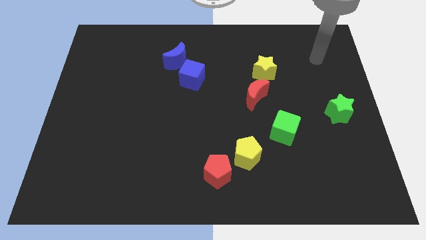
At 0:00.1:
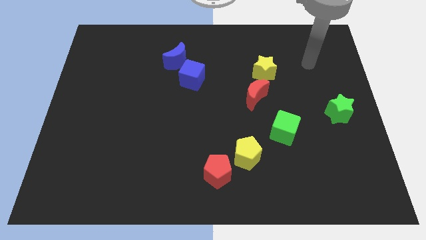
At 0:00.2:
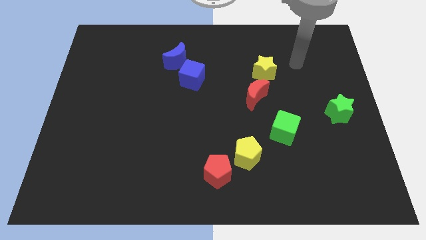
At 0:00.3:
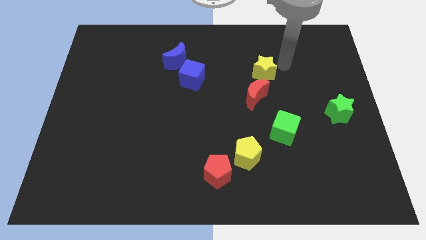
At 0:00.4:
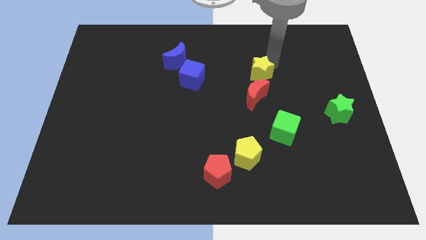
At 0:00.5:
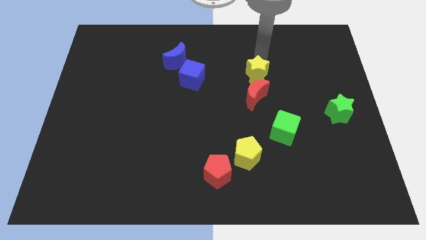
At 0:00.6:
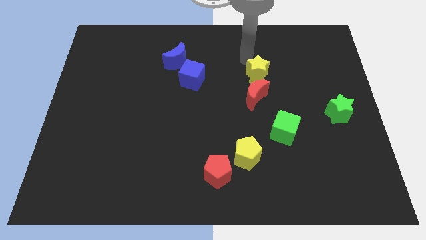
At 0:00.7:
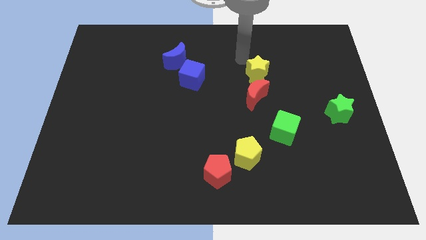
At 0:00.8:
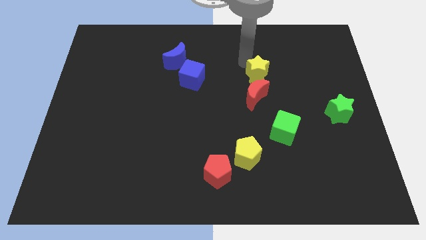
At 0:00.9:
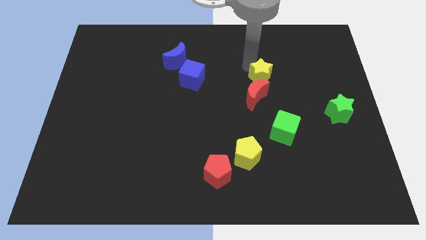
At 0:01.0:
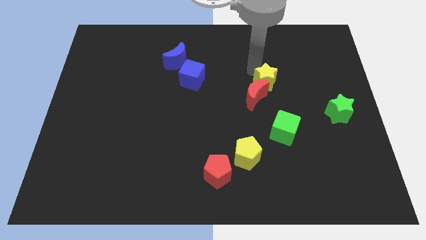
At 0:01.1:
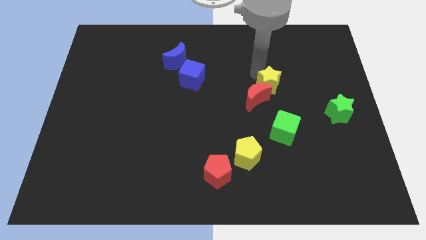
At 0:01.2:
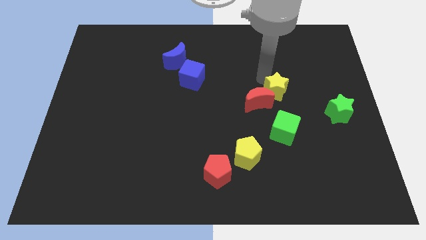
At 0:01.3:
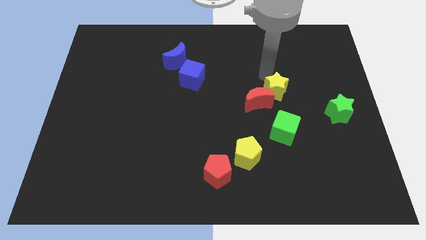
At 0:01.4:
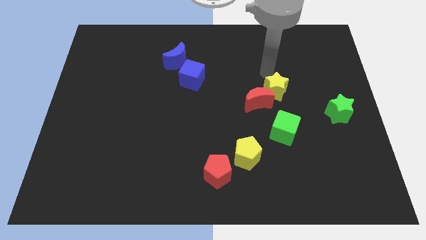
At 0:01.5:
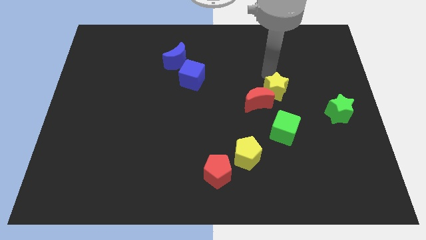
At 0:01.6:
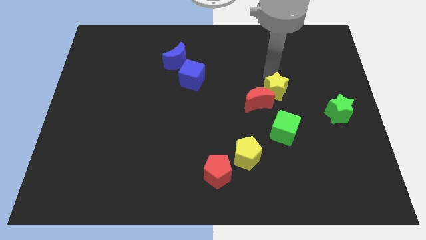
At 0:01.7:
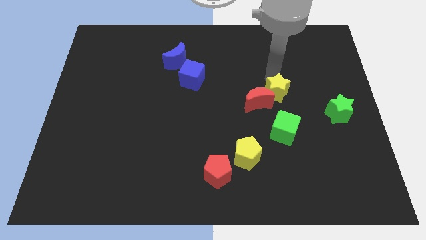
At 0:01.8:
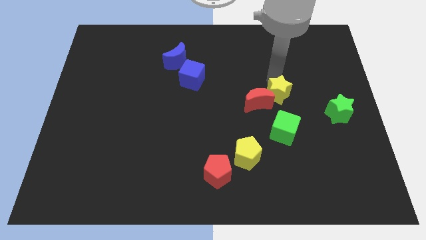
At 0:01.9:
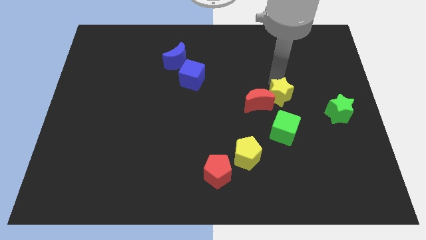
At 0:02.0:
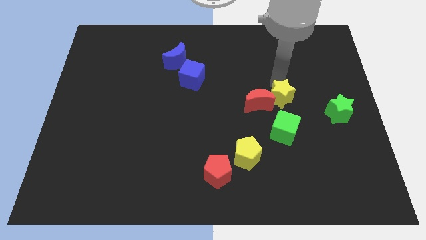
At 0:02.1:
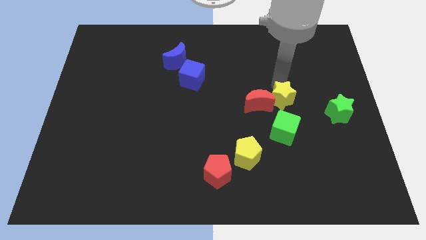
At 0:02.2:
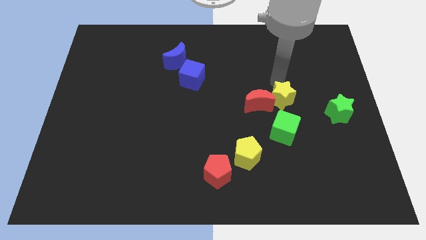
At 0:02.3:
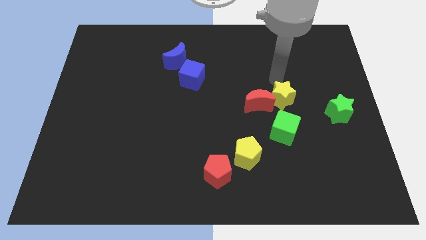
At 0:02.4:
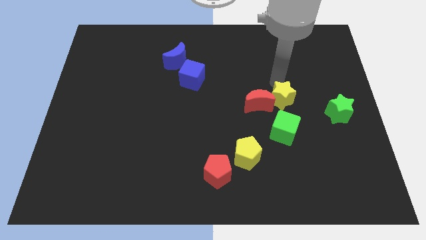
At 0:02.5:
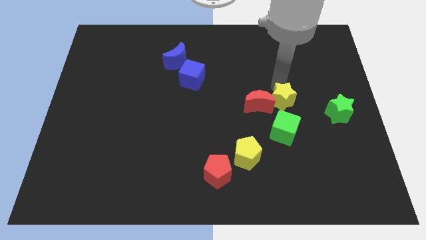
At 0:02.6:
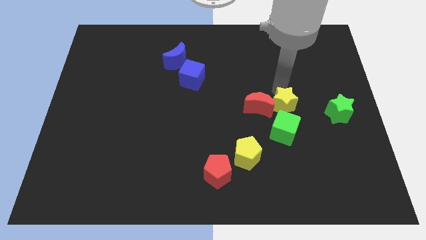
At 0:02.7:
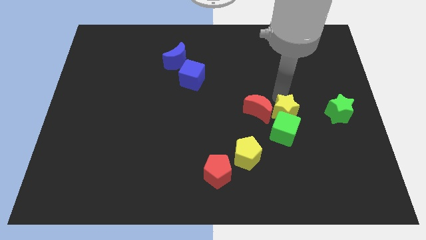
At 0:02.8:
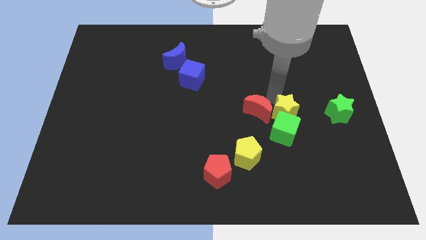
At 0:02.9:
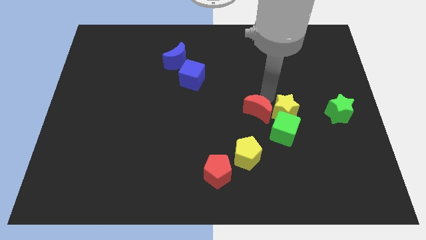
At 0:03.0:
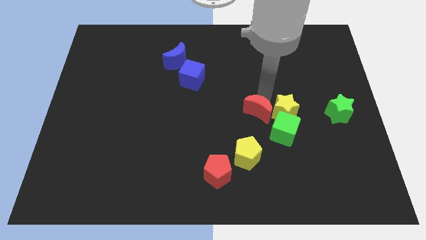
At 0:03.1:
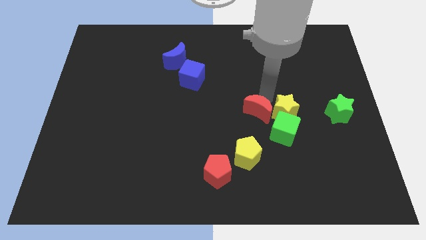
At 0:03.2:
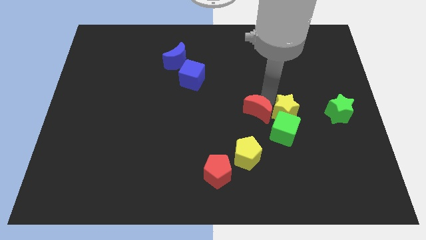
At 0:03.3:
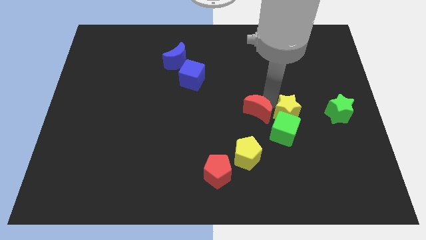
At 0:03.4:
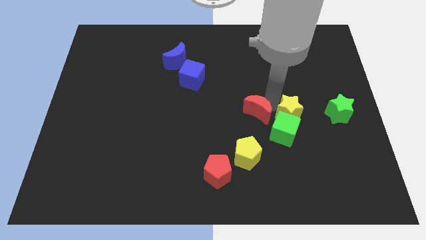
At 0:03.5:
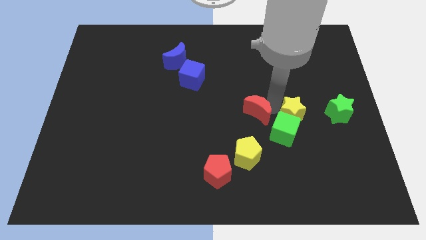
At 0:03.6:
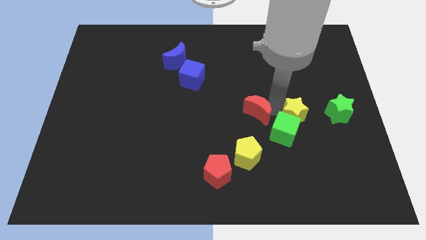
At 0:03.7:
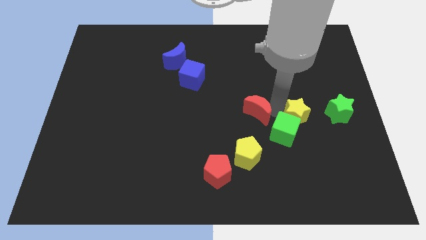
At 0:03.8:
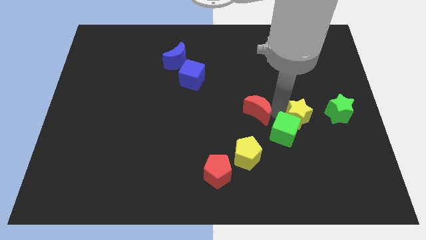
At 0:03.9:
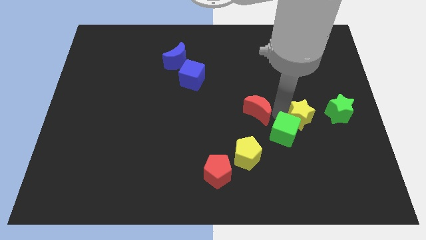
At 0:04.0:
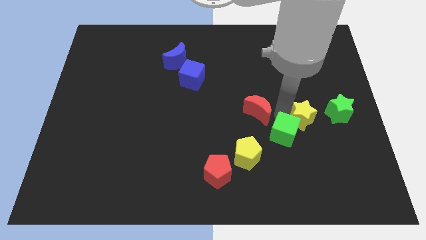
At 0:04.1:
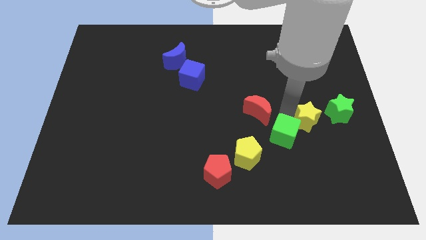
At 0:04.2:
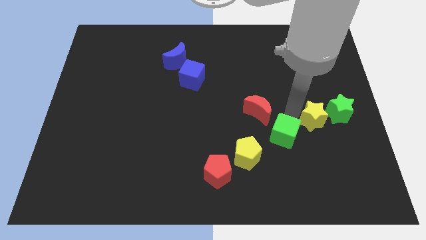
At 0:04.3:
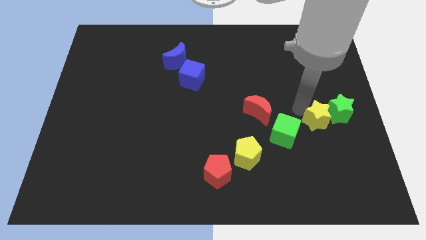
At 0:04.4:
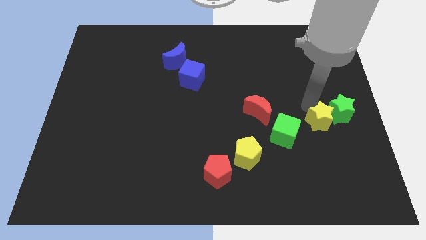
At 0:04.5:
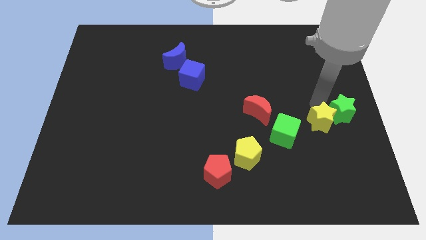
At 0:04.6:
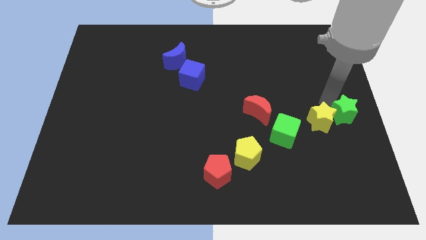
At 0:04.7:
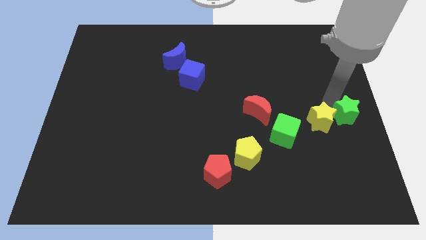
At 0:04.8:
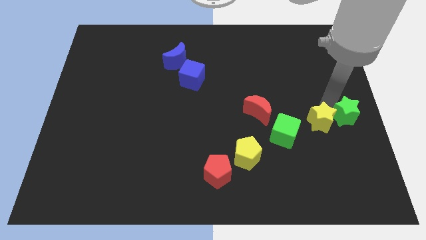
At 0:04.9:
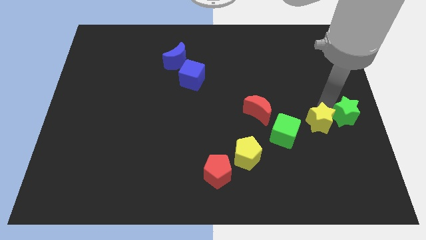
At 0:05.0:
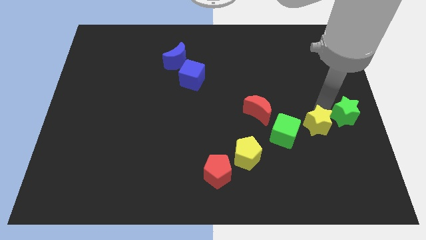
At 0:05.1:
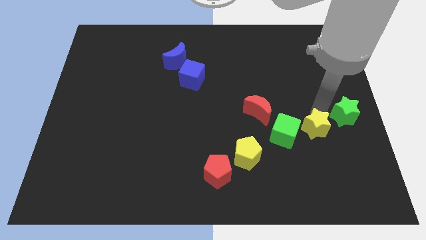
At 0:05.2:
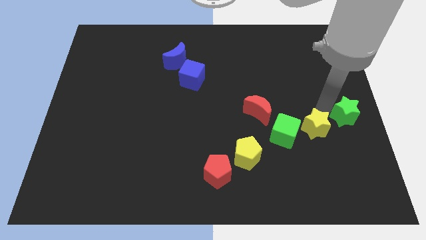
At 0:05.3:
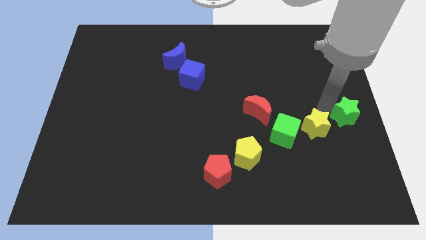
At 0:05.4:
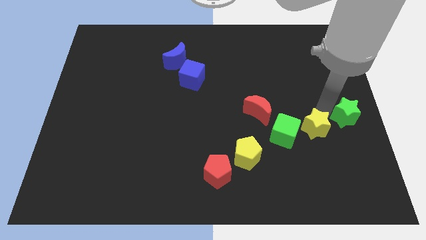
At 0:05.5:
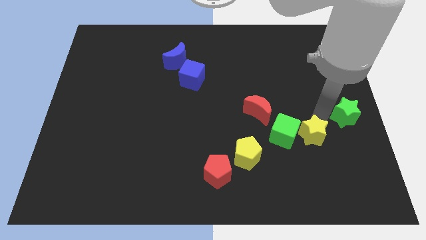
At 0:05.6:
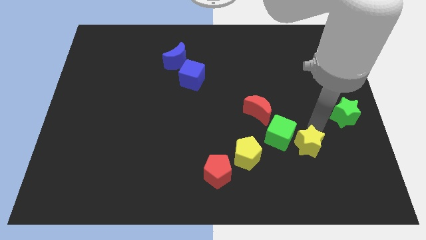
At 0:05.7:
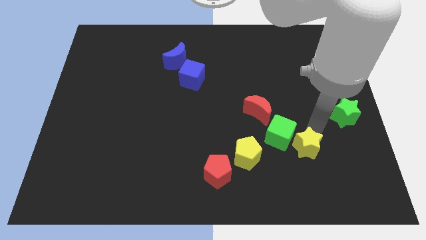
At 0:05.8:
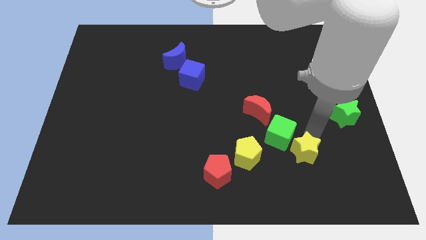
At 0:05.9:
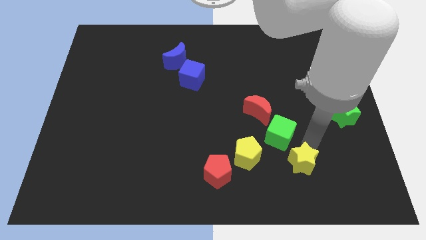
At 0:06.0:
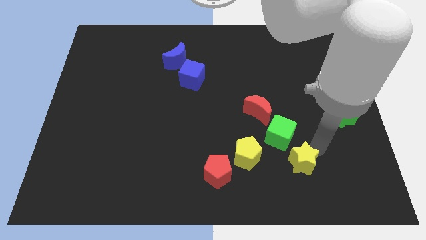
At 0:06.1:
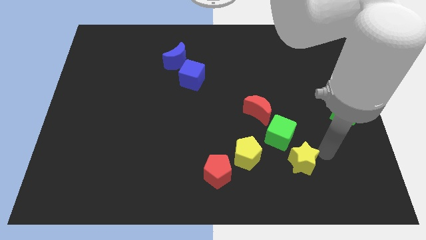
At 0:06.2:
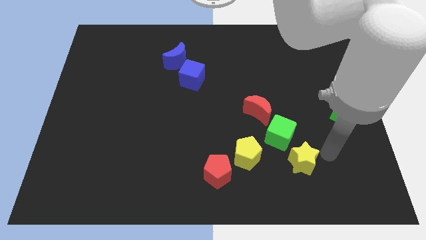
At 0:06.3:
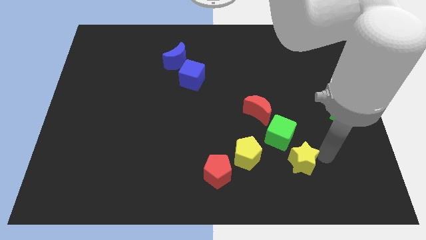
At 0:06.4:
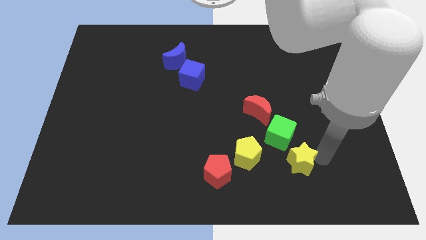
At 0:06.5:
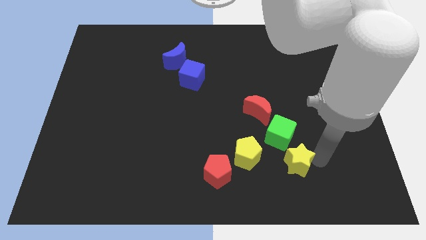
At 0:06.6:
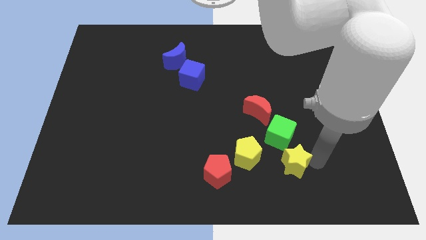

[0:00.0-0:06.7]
slide the yellow star just right of the red pentagon

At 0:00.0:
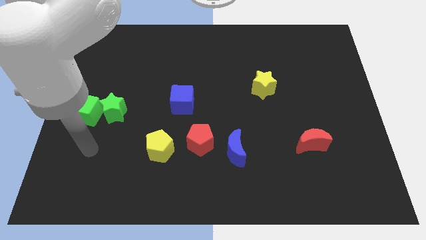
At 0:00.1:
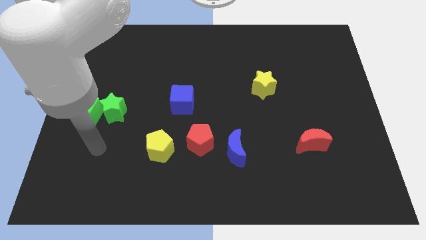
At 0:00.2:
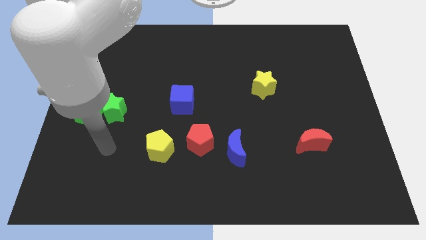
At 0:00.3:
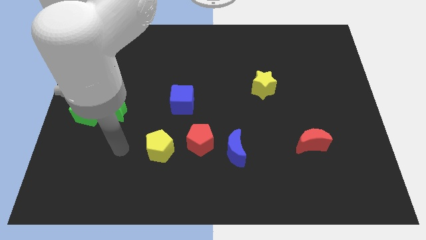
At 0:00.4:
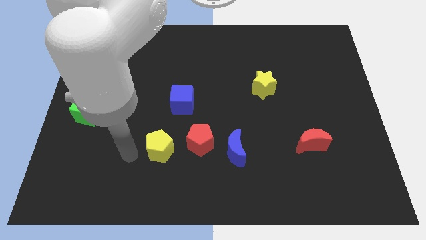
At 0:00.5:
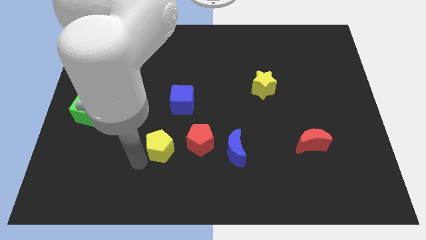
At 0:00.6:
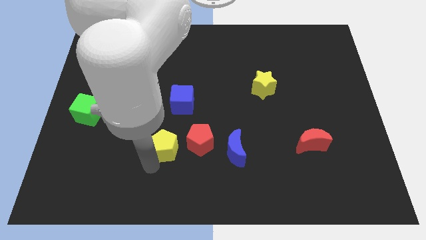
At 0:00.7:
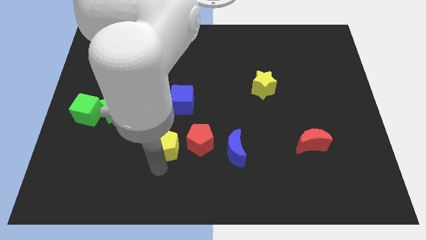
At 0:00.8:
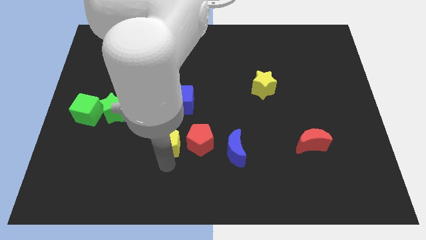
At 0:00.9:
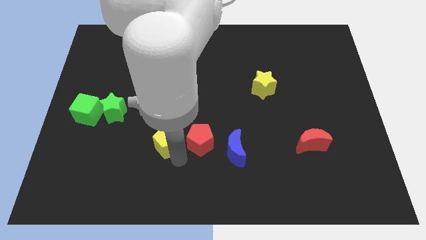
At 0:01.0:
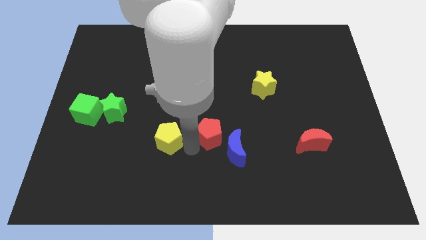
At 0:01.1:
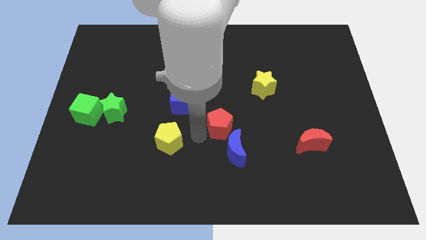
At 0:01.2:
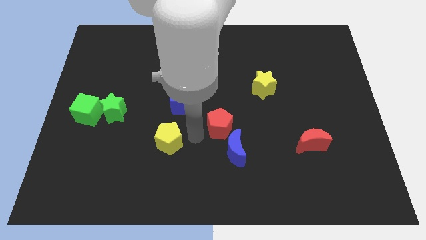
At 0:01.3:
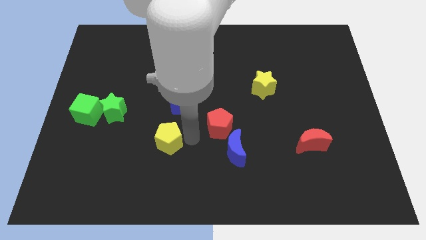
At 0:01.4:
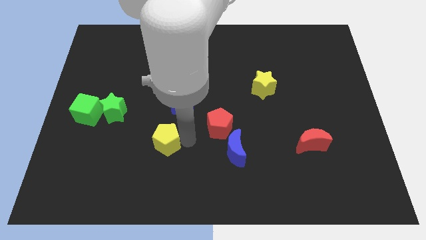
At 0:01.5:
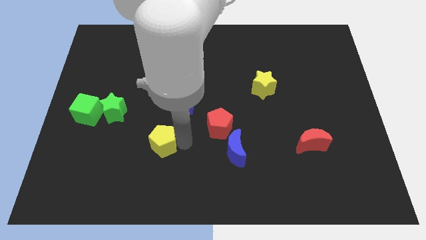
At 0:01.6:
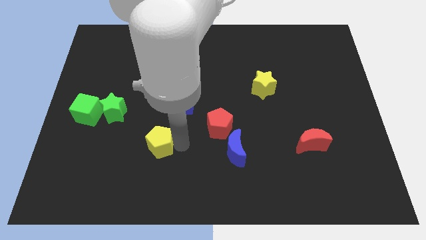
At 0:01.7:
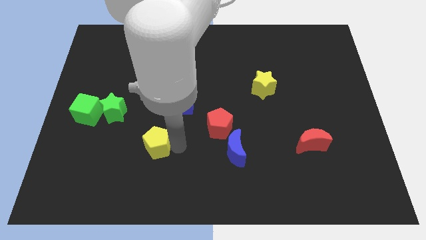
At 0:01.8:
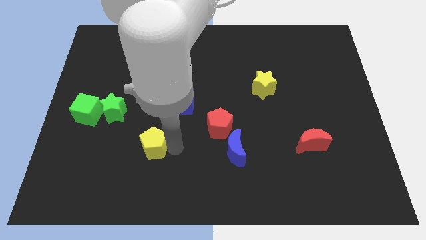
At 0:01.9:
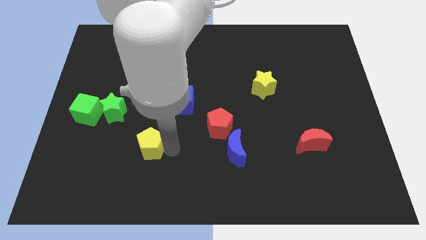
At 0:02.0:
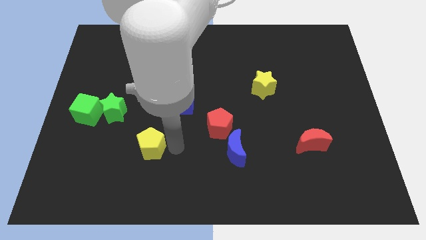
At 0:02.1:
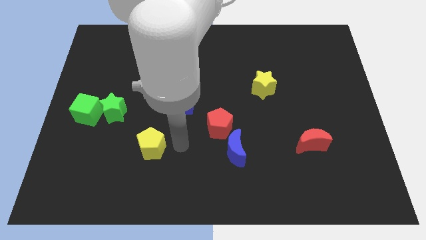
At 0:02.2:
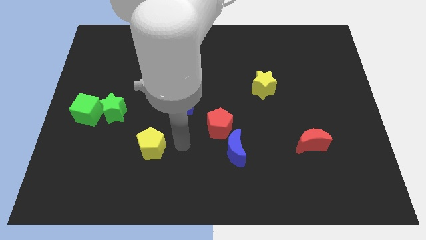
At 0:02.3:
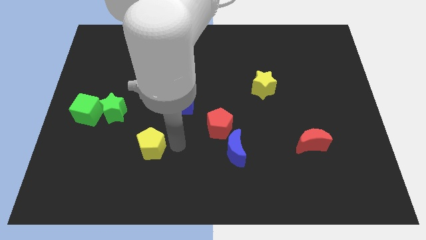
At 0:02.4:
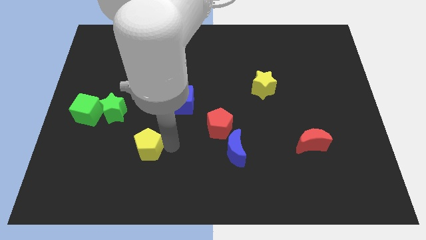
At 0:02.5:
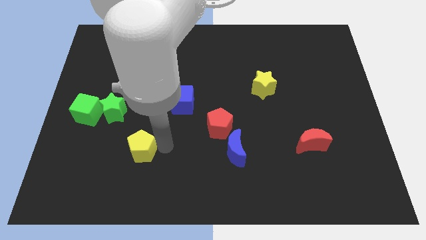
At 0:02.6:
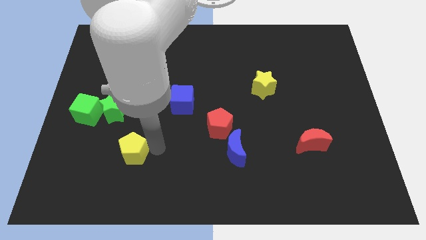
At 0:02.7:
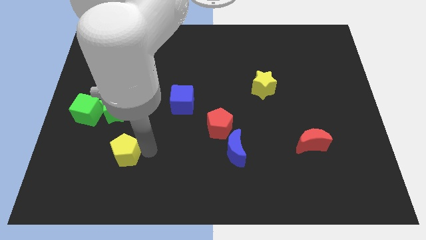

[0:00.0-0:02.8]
move the yellow pentagon below the green star
